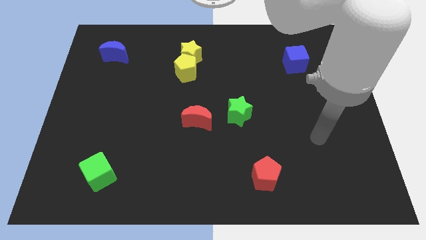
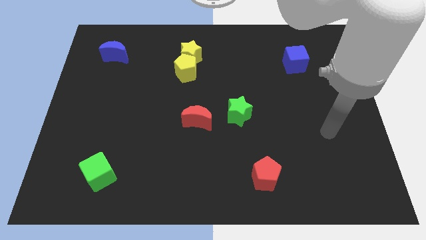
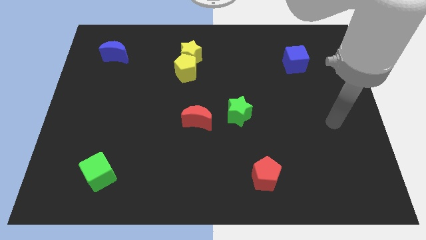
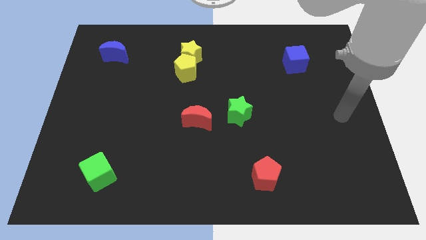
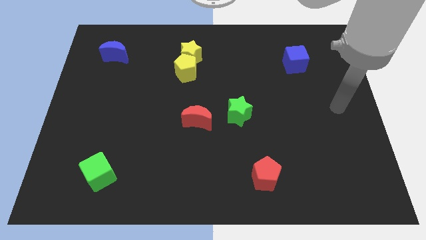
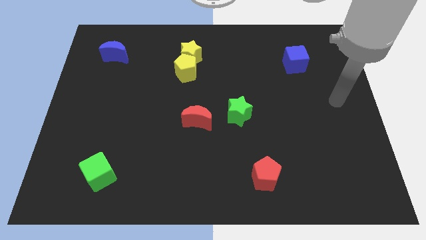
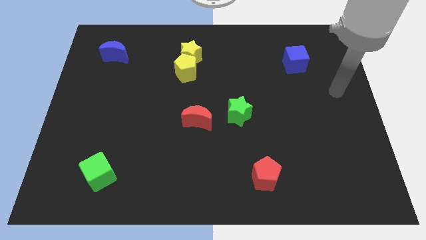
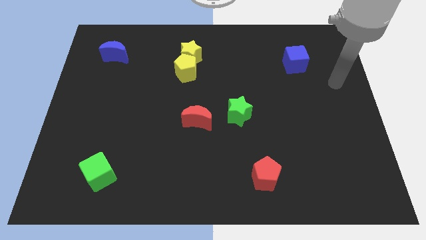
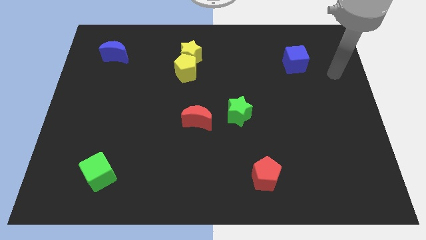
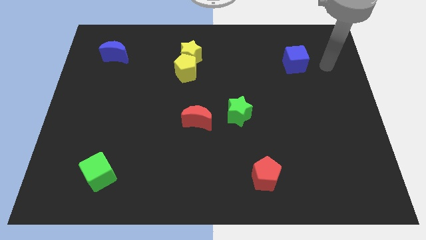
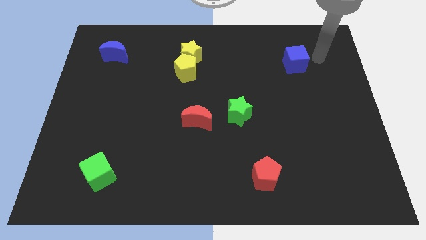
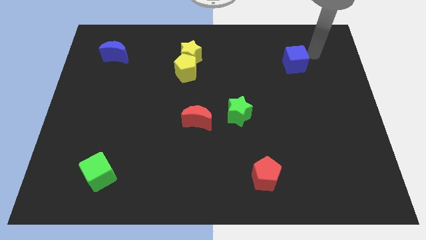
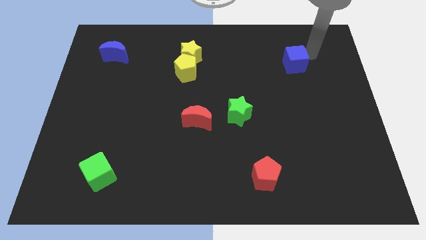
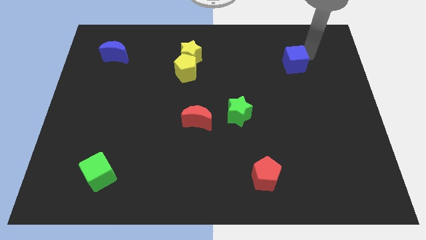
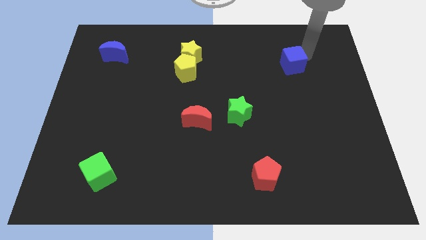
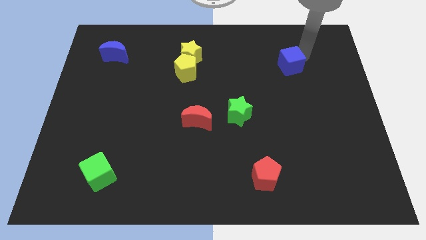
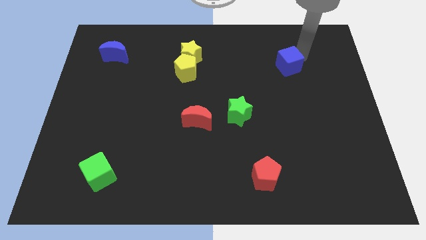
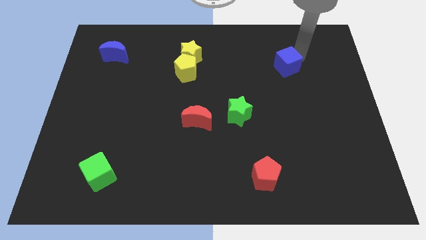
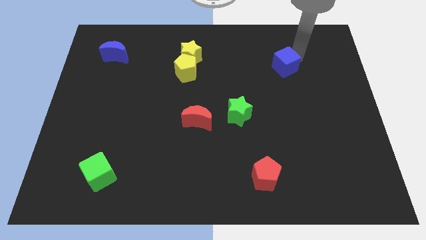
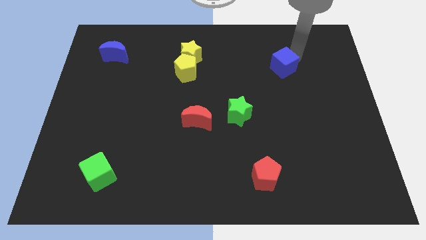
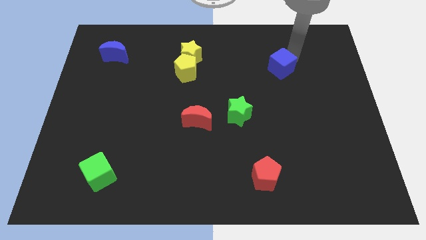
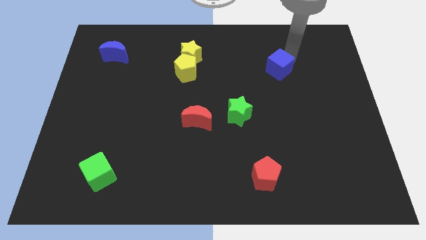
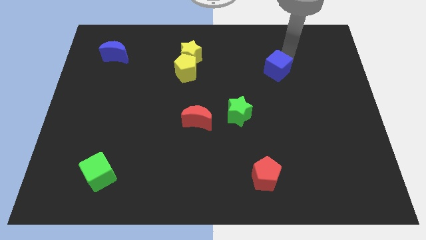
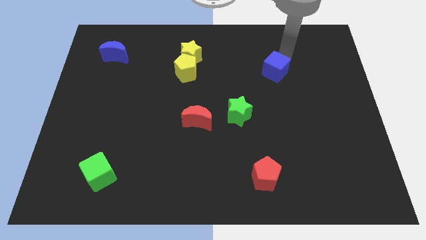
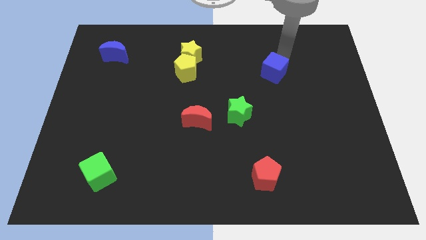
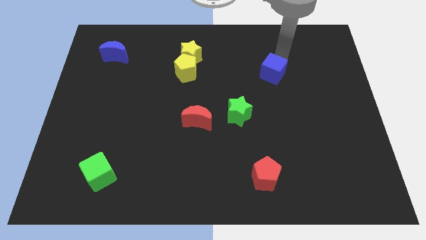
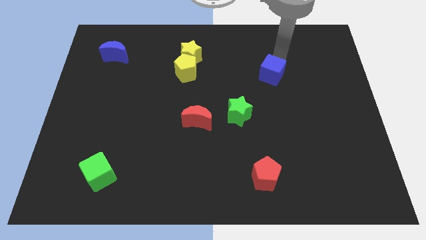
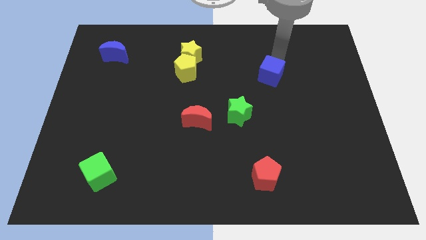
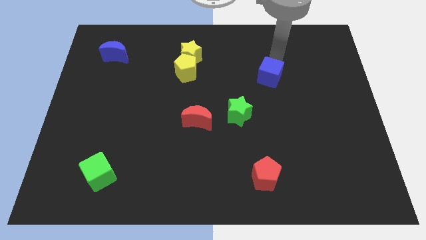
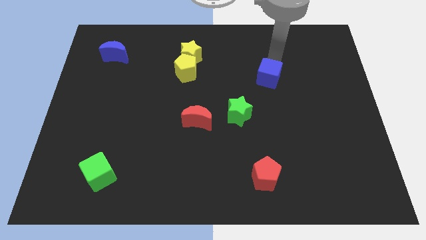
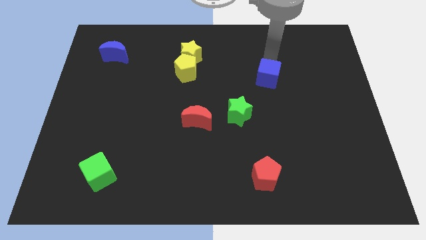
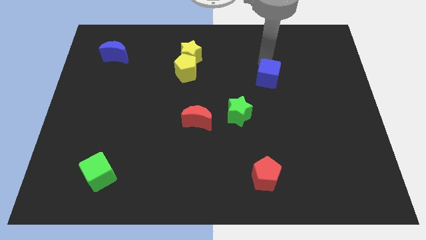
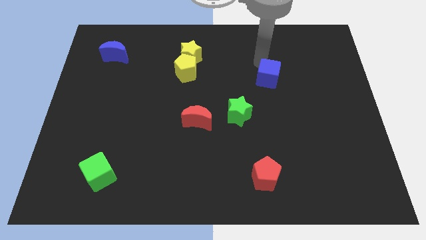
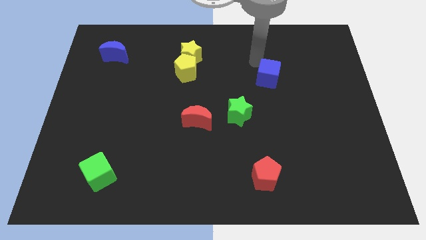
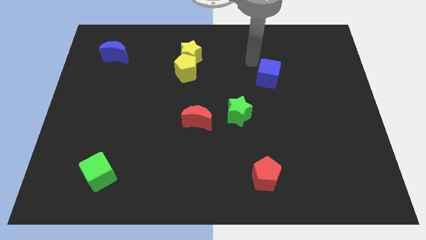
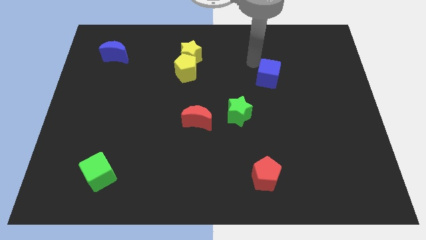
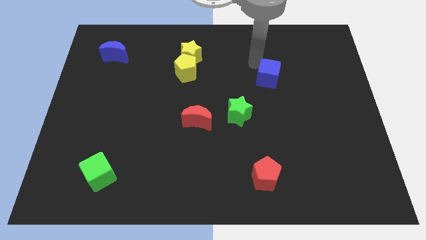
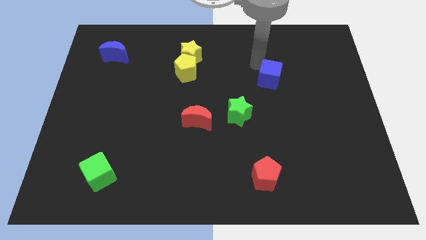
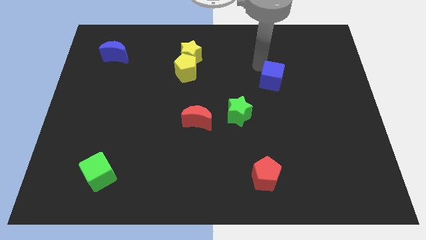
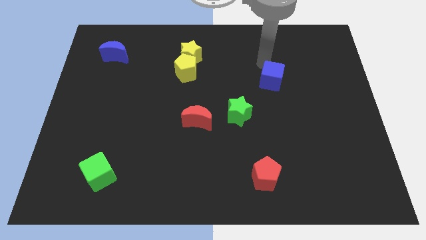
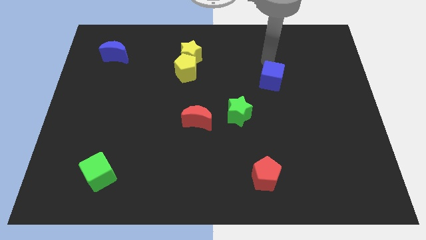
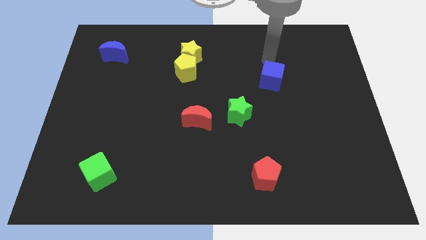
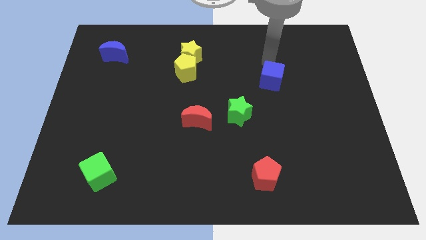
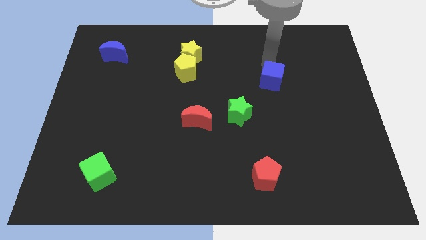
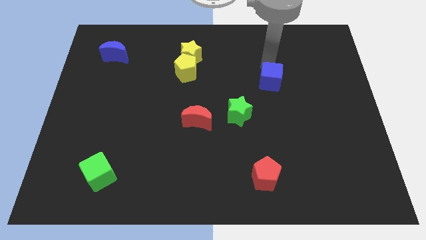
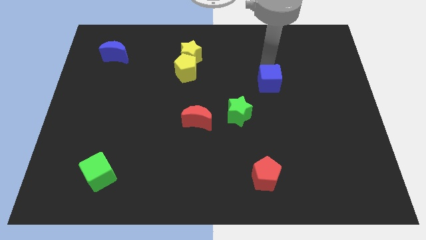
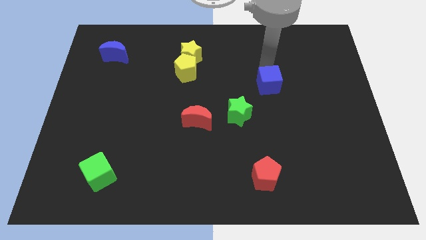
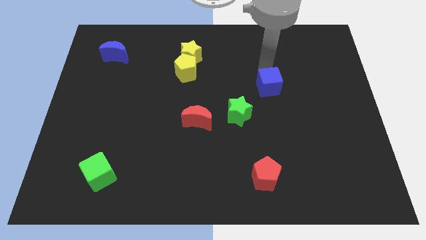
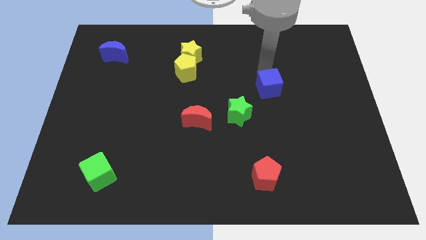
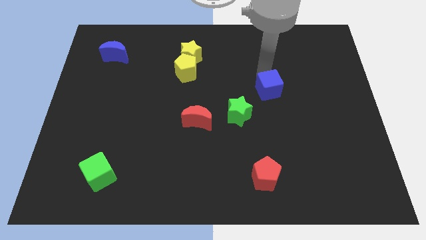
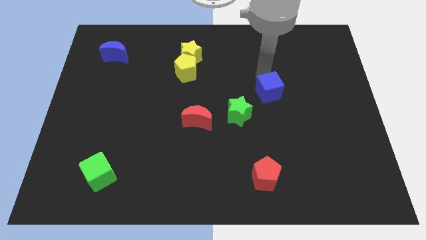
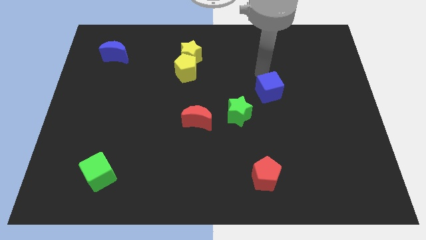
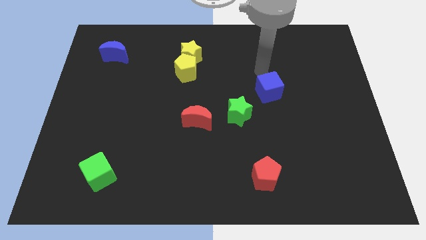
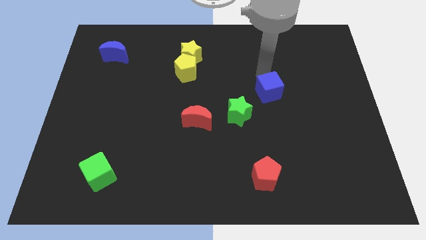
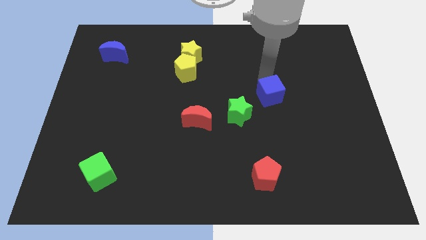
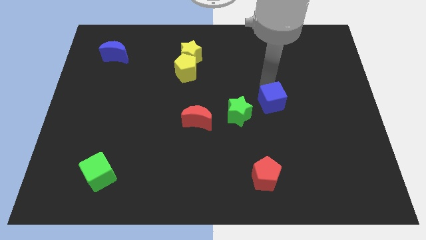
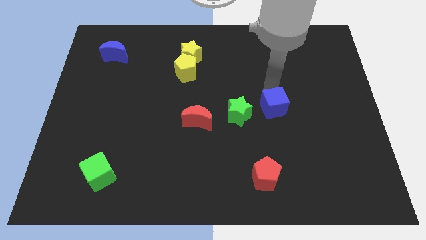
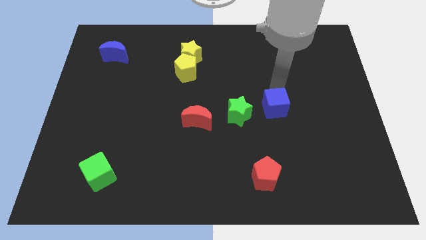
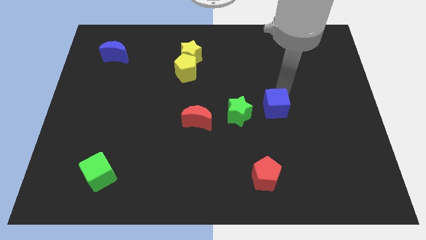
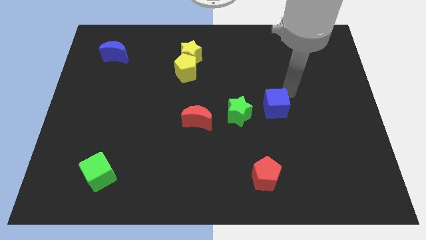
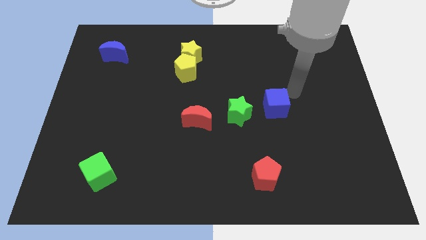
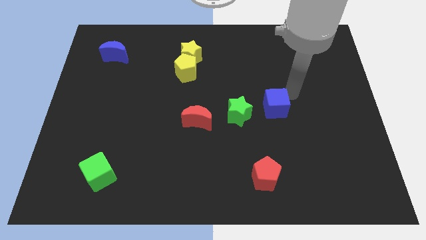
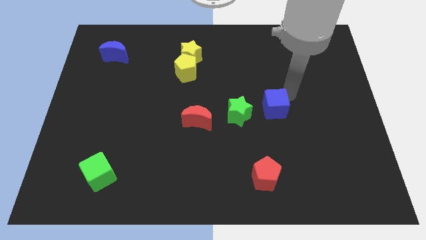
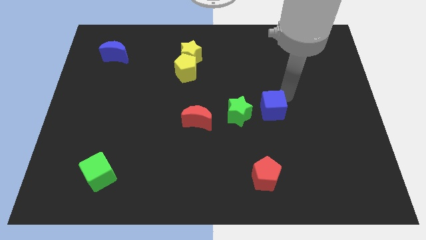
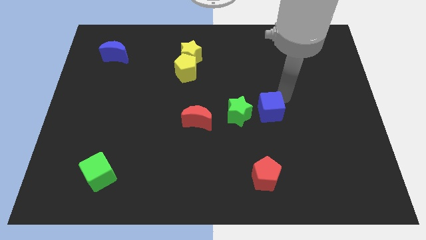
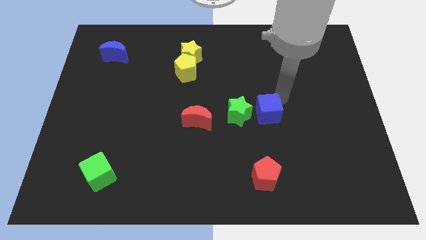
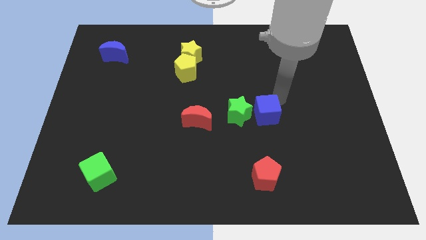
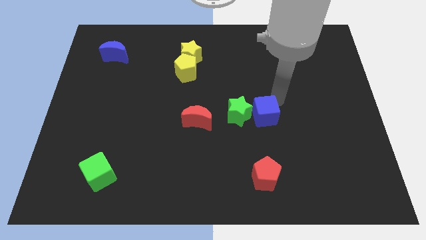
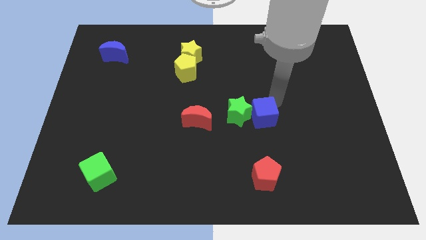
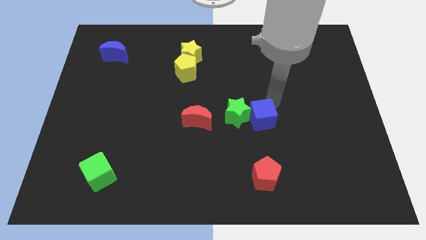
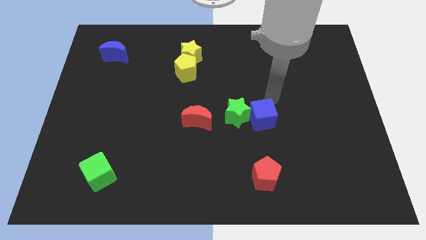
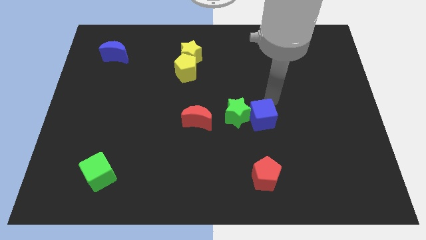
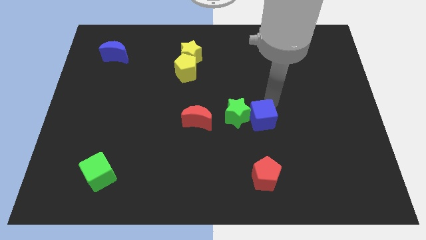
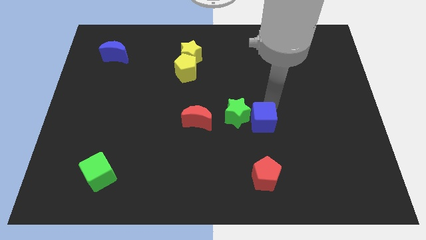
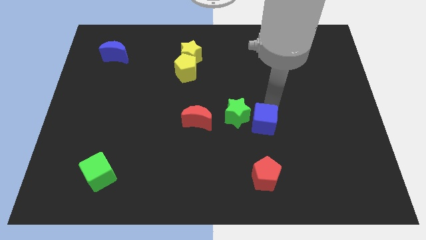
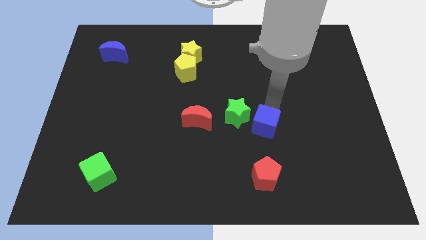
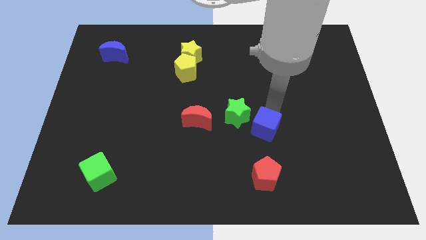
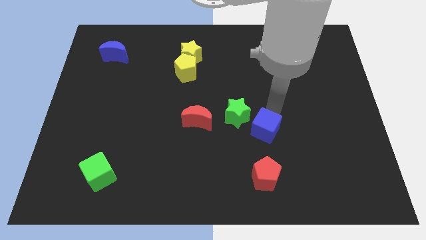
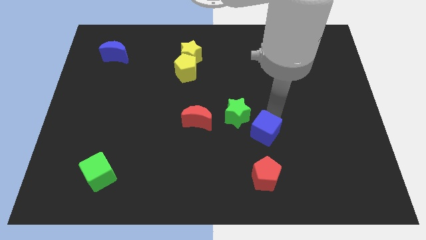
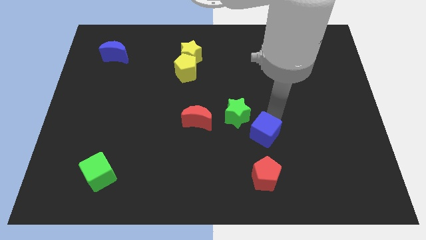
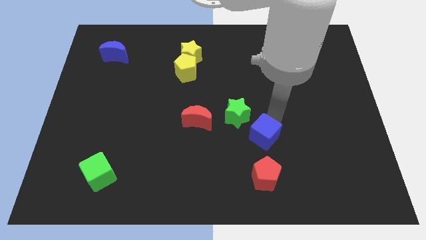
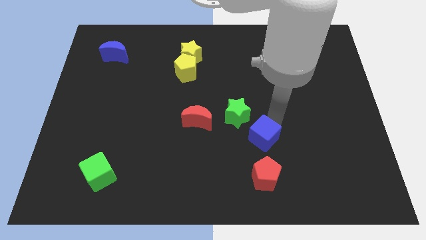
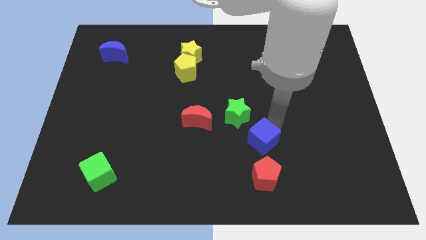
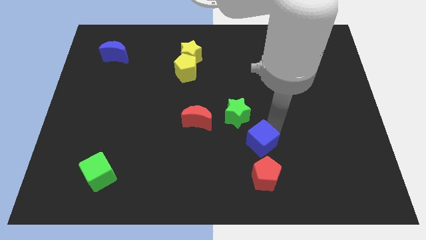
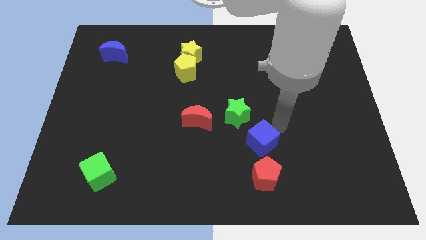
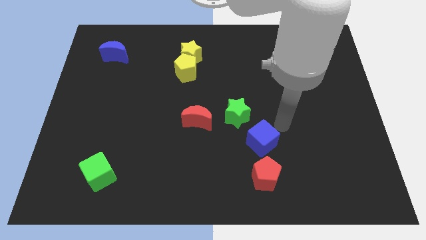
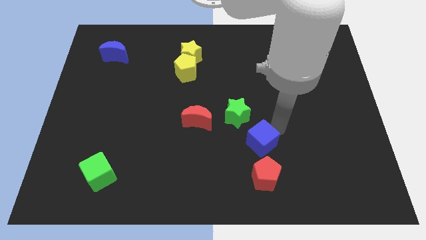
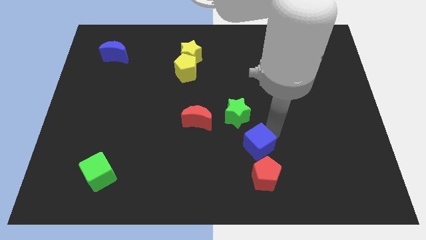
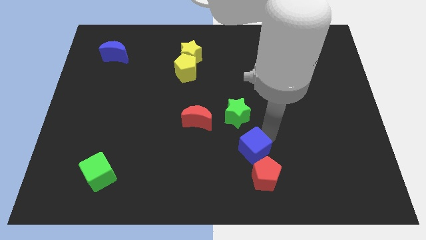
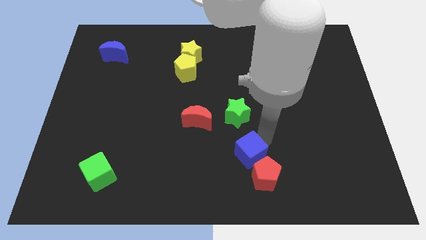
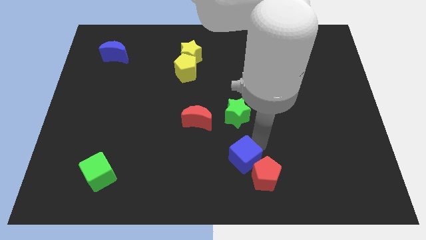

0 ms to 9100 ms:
put the blue cube to the left of the red pentagon
